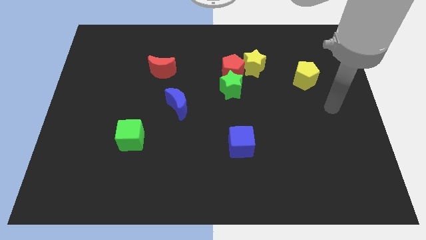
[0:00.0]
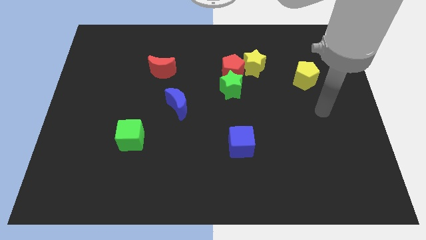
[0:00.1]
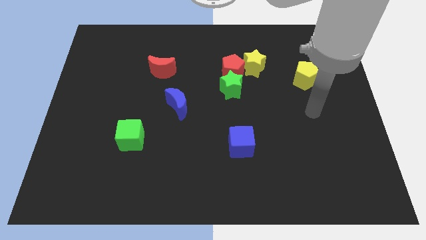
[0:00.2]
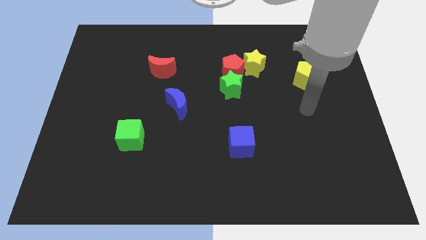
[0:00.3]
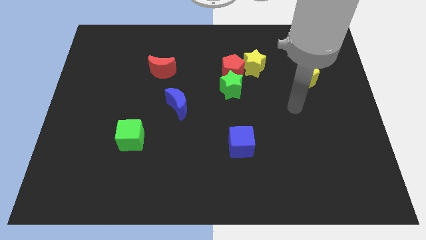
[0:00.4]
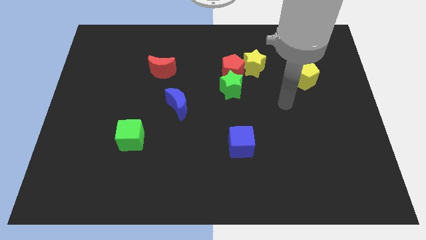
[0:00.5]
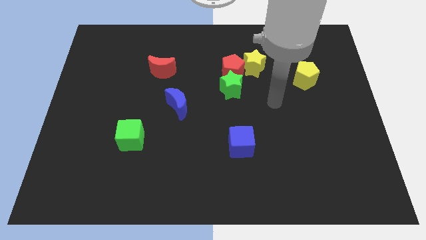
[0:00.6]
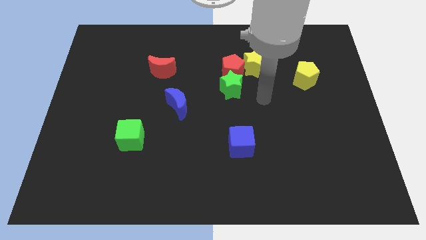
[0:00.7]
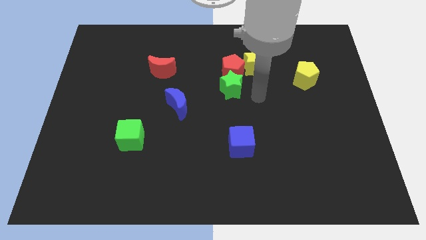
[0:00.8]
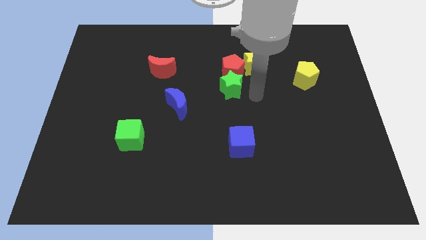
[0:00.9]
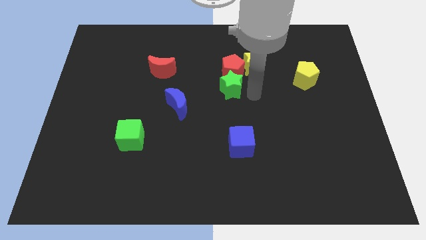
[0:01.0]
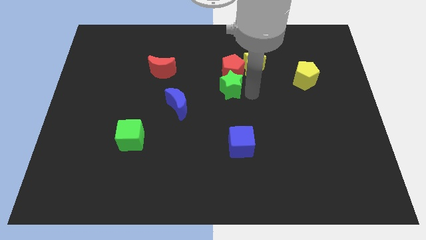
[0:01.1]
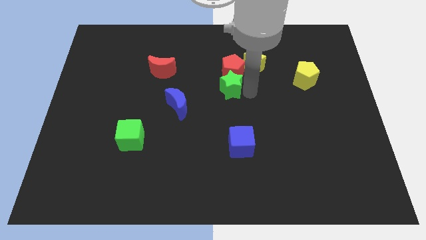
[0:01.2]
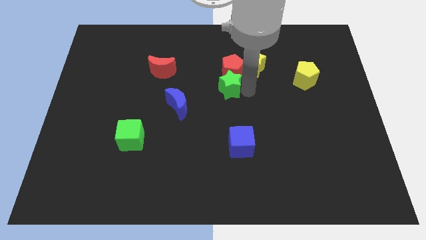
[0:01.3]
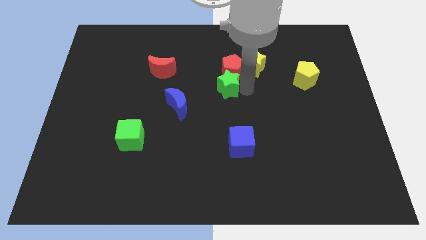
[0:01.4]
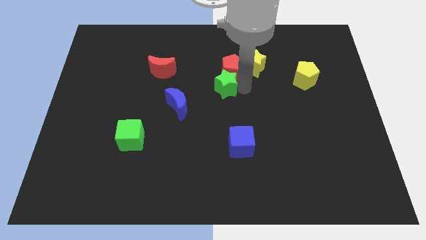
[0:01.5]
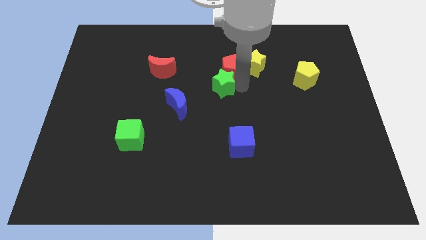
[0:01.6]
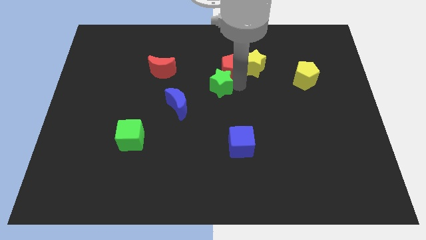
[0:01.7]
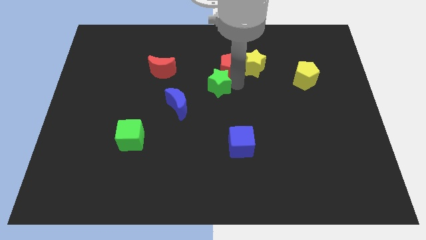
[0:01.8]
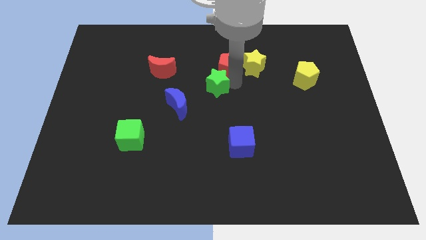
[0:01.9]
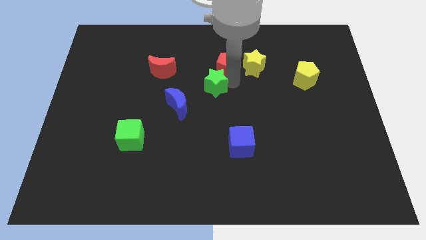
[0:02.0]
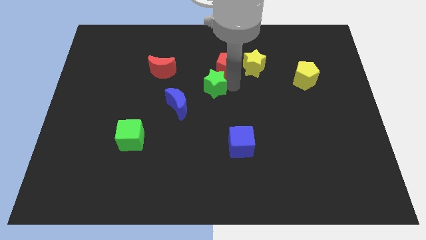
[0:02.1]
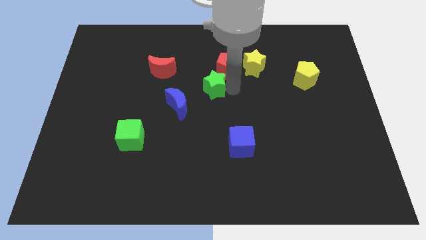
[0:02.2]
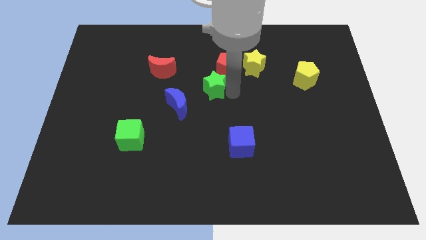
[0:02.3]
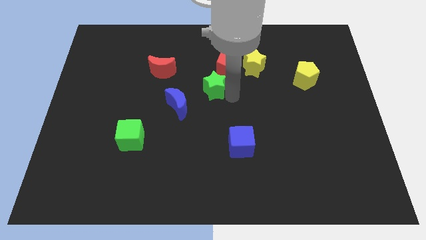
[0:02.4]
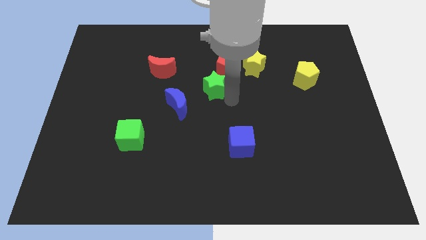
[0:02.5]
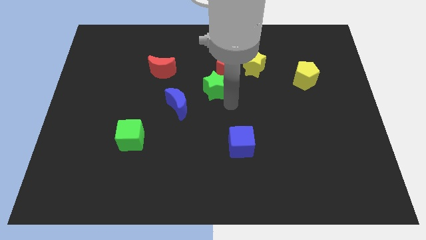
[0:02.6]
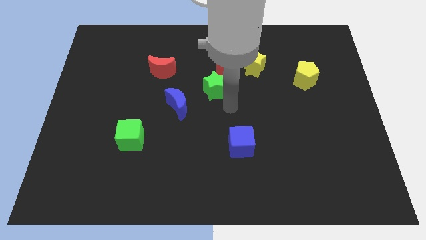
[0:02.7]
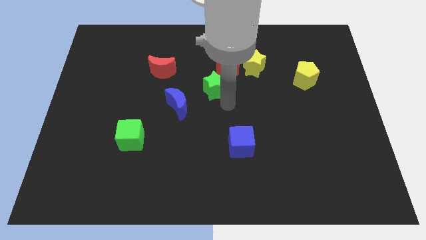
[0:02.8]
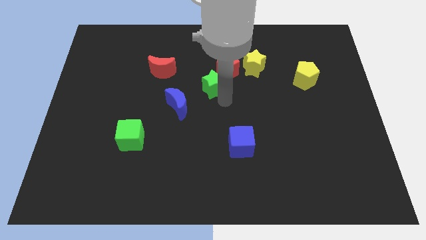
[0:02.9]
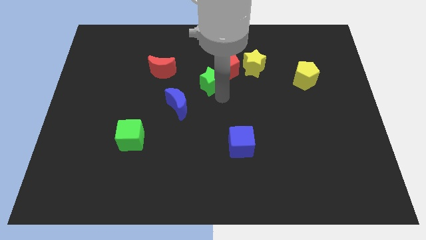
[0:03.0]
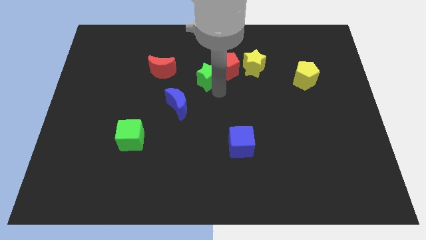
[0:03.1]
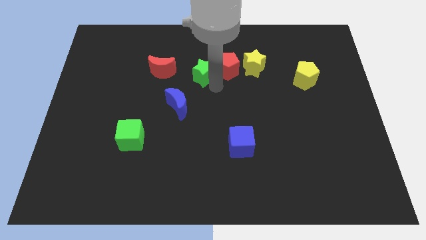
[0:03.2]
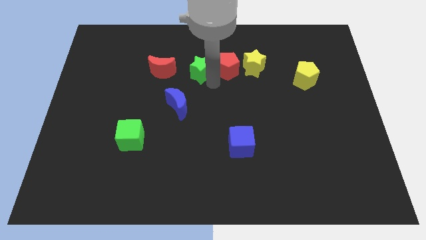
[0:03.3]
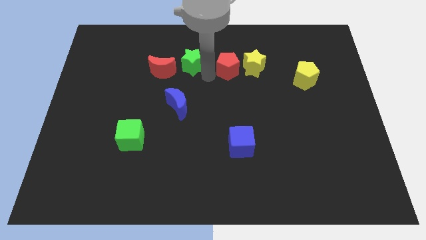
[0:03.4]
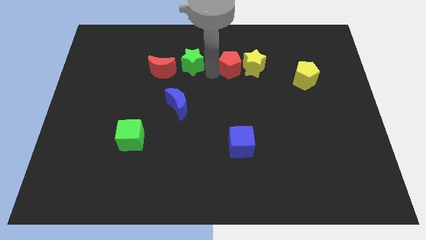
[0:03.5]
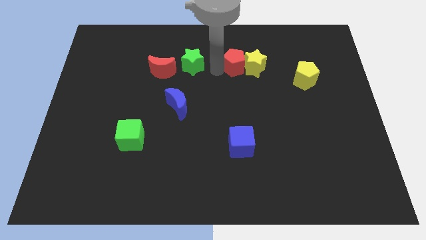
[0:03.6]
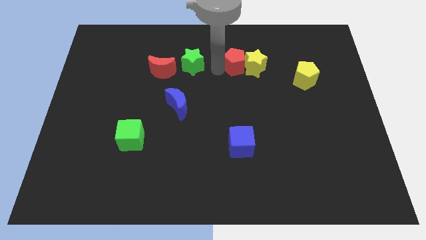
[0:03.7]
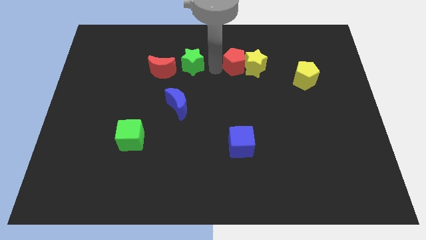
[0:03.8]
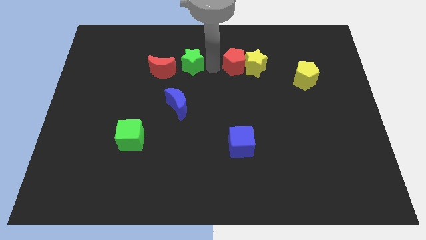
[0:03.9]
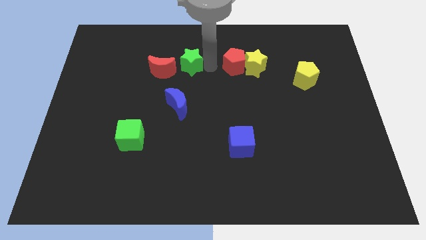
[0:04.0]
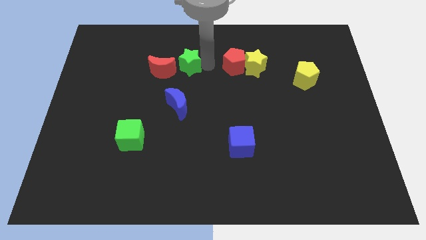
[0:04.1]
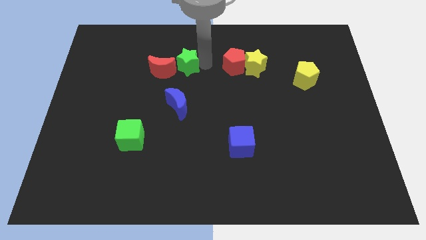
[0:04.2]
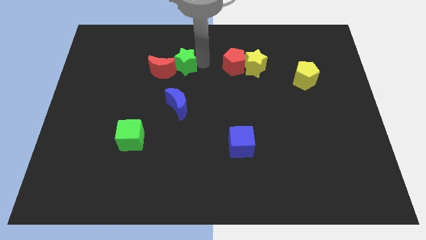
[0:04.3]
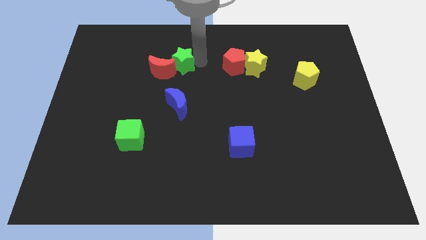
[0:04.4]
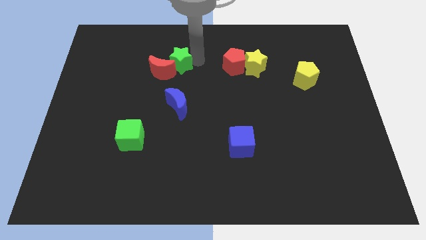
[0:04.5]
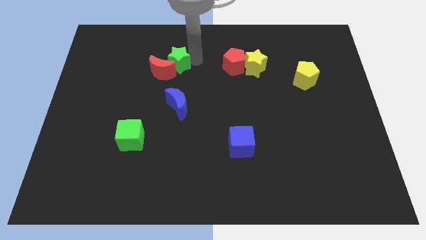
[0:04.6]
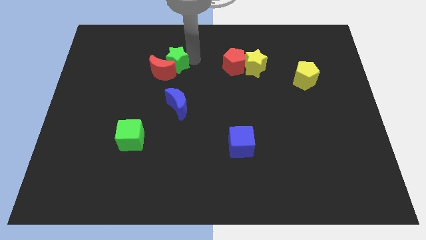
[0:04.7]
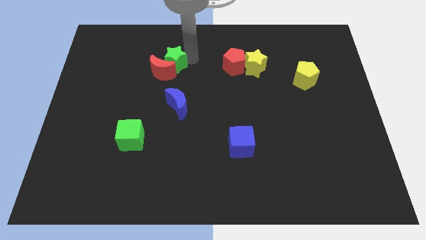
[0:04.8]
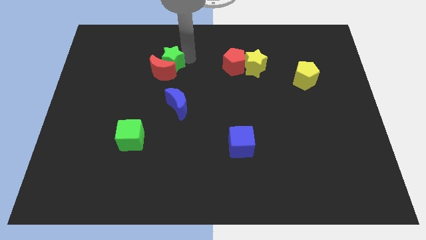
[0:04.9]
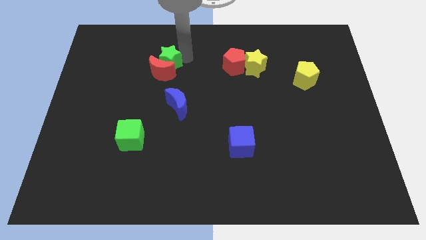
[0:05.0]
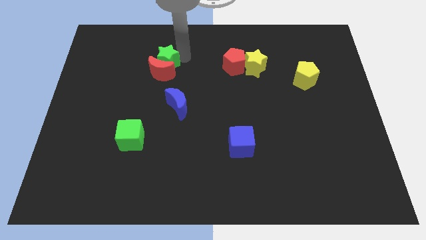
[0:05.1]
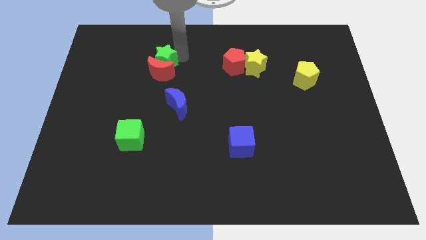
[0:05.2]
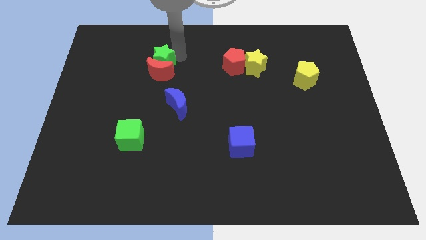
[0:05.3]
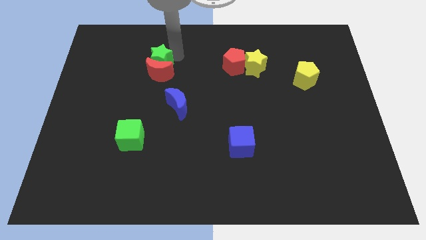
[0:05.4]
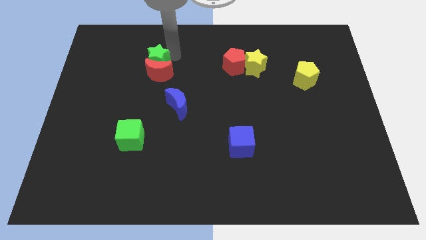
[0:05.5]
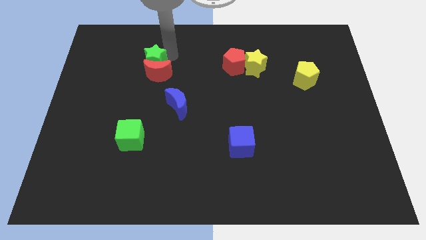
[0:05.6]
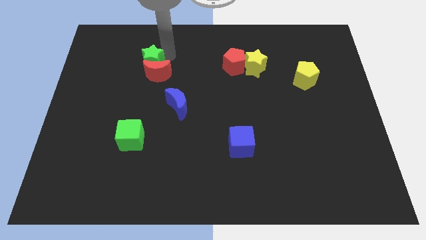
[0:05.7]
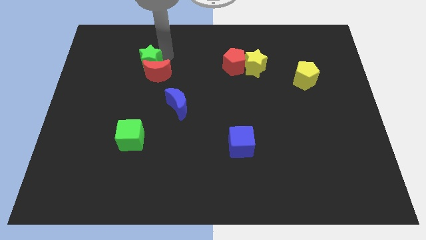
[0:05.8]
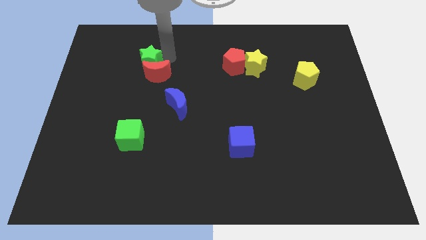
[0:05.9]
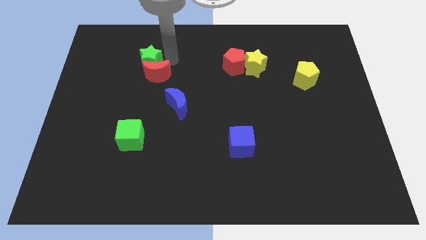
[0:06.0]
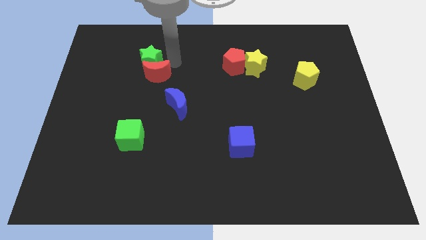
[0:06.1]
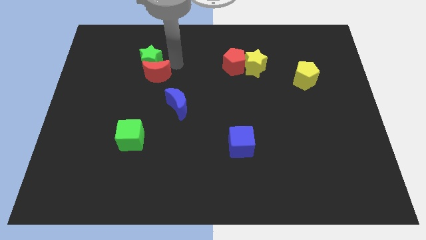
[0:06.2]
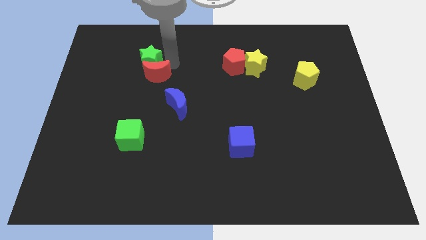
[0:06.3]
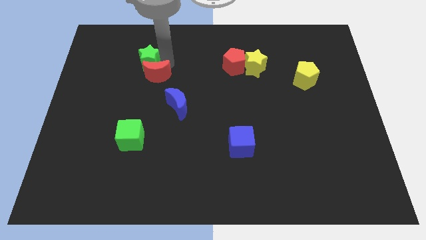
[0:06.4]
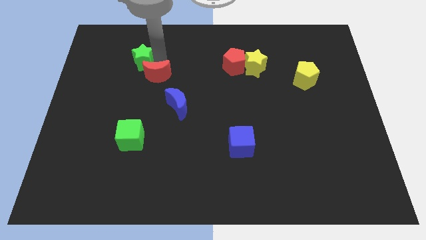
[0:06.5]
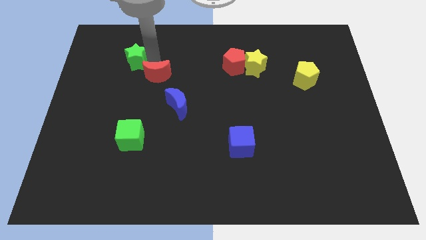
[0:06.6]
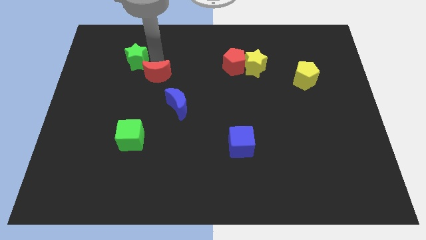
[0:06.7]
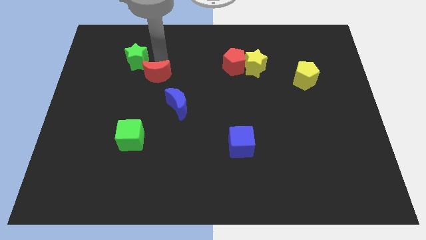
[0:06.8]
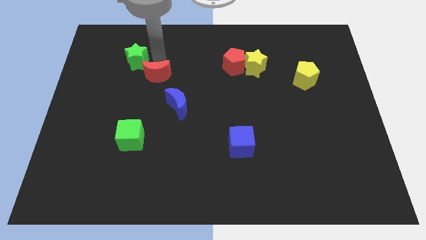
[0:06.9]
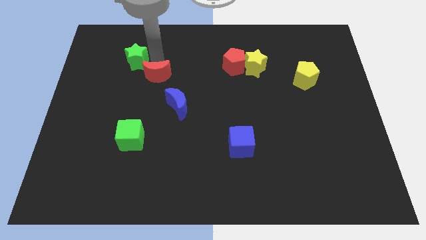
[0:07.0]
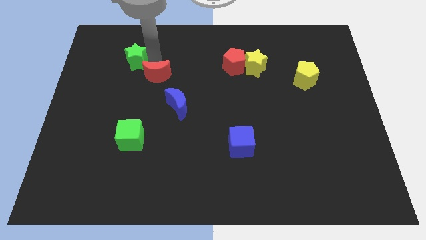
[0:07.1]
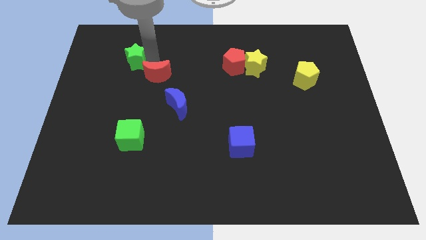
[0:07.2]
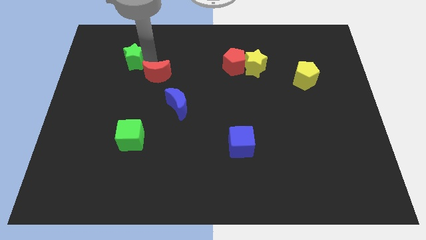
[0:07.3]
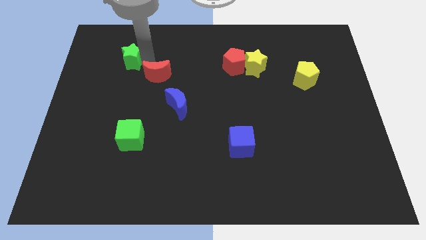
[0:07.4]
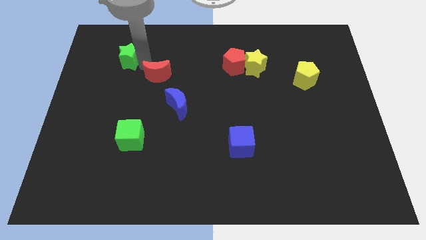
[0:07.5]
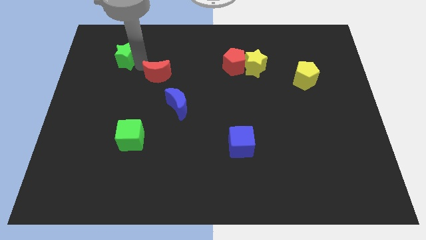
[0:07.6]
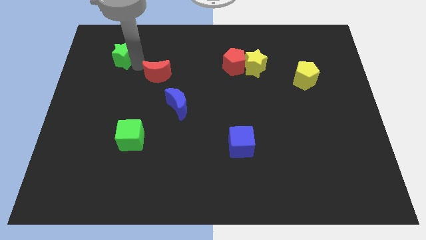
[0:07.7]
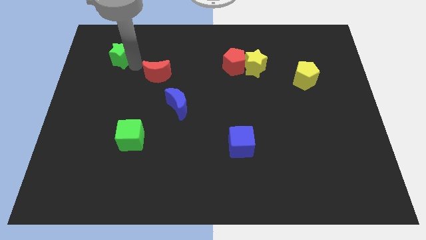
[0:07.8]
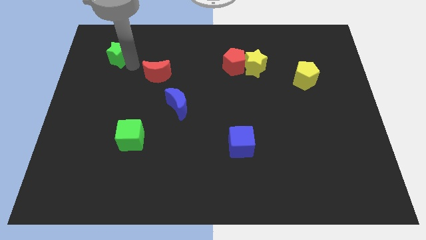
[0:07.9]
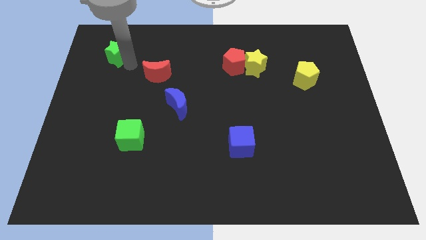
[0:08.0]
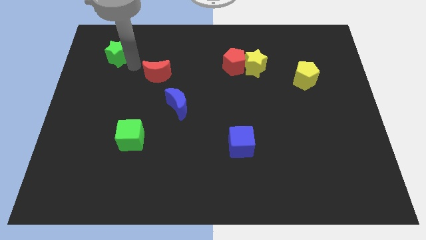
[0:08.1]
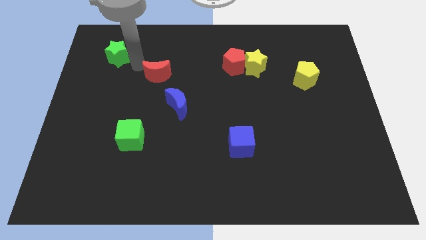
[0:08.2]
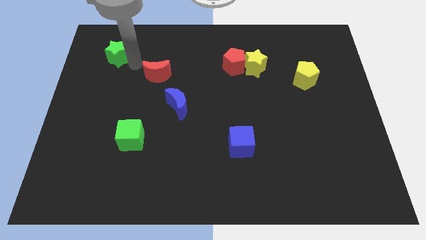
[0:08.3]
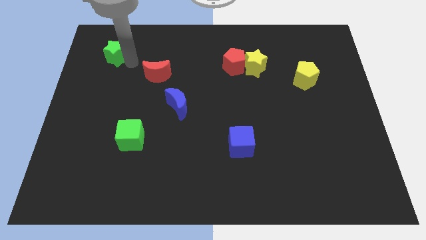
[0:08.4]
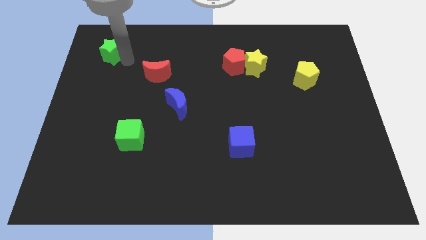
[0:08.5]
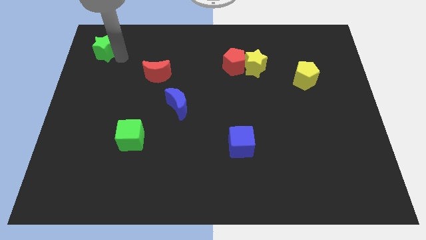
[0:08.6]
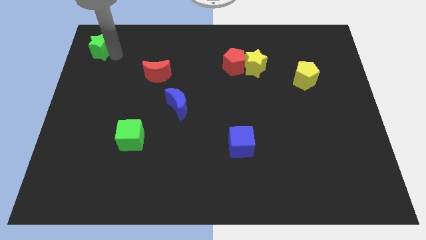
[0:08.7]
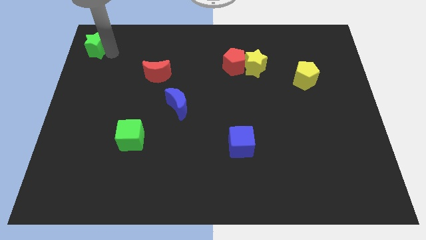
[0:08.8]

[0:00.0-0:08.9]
push the green star to the top left
